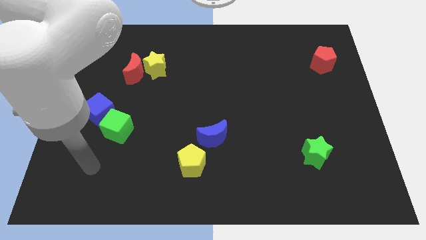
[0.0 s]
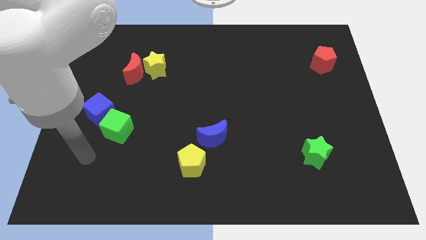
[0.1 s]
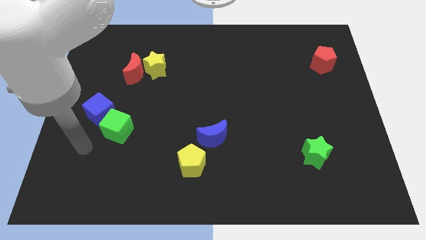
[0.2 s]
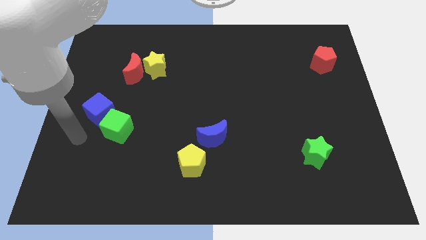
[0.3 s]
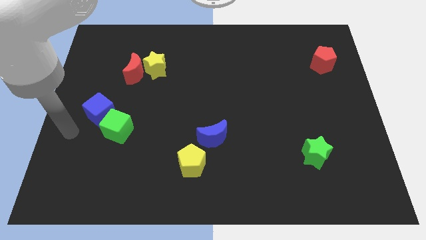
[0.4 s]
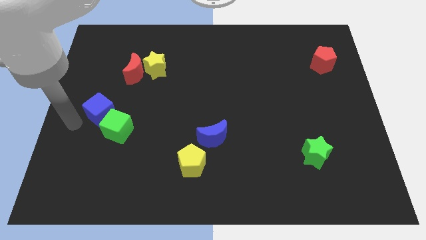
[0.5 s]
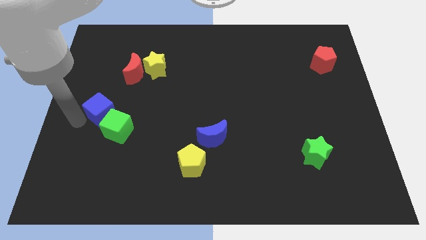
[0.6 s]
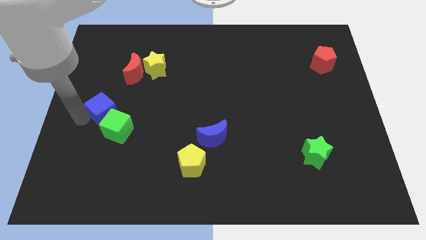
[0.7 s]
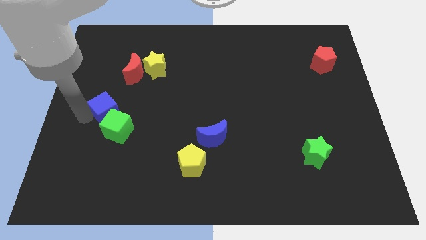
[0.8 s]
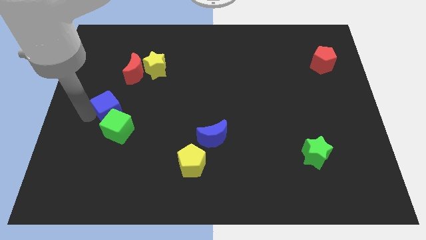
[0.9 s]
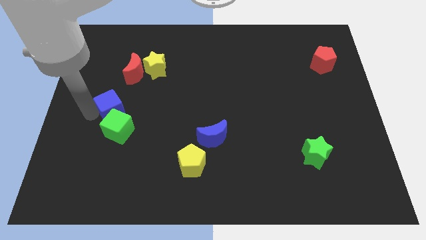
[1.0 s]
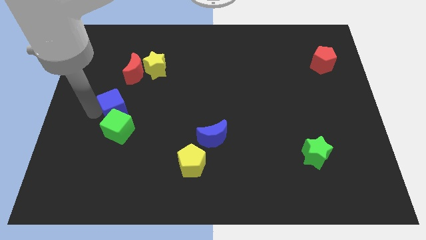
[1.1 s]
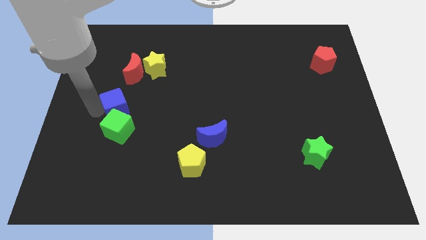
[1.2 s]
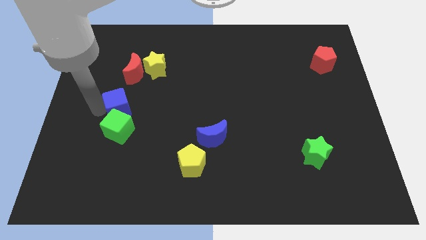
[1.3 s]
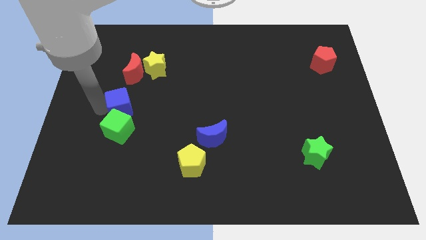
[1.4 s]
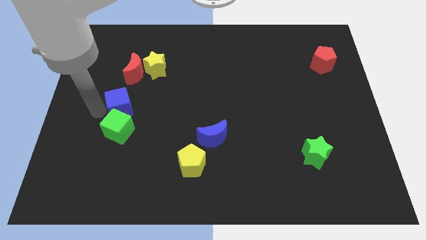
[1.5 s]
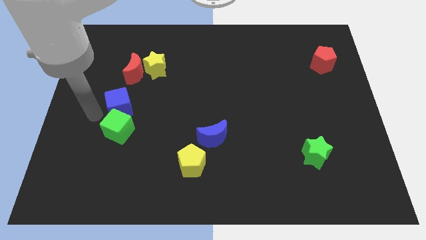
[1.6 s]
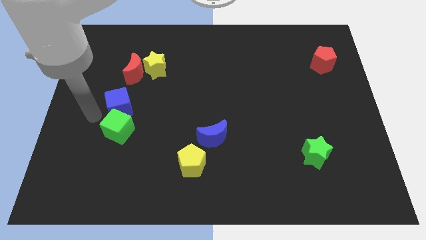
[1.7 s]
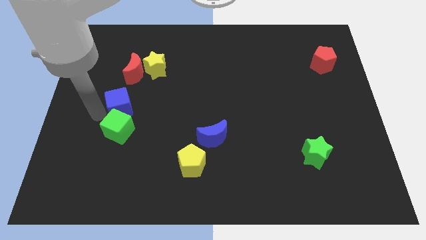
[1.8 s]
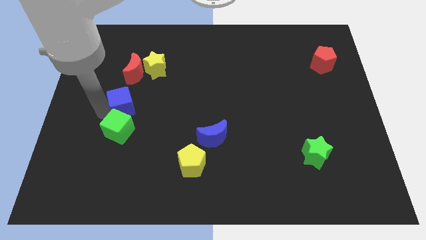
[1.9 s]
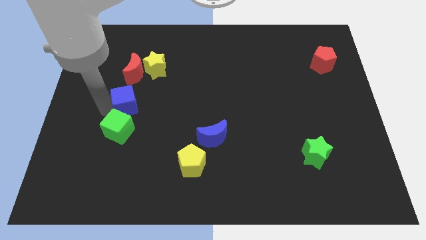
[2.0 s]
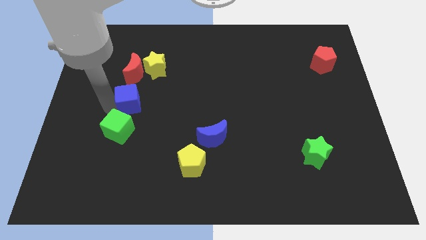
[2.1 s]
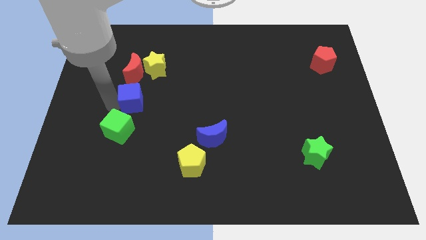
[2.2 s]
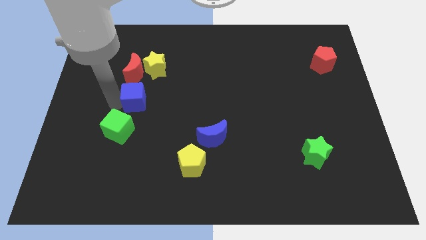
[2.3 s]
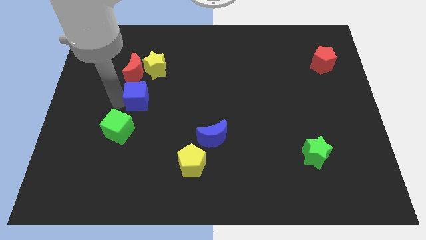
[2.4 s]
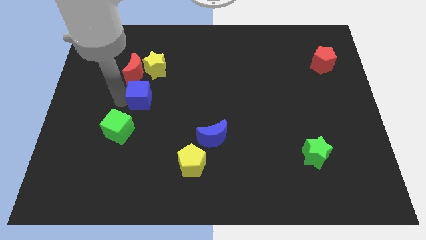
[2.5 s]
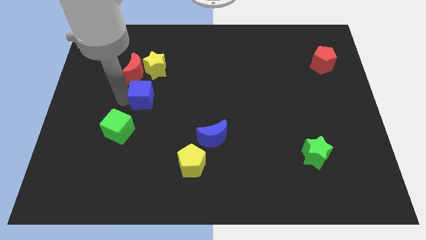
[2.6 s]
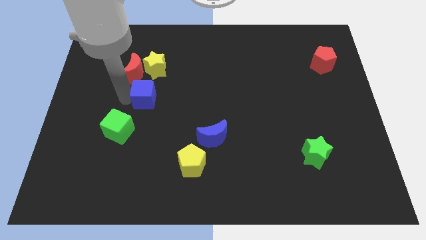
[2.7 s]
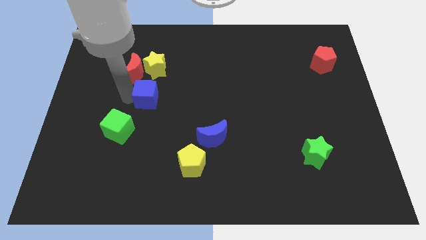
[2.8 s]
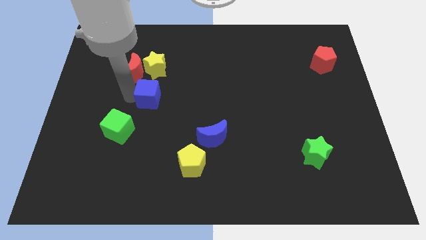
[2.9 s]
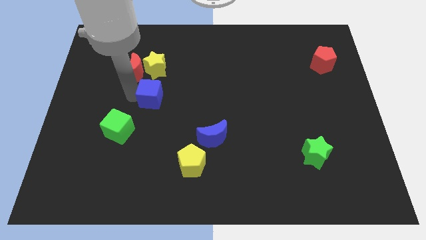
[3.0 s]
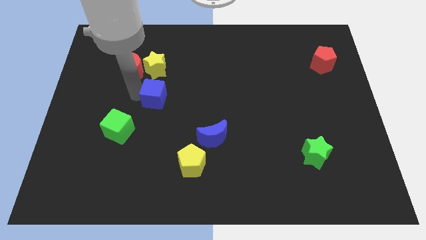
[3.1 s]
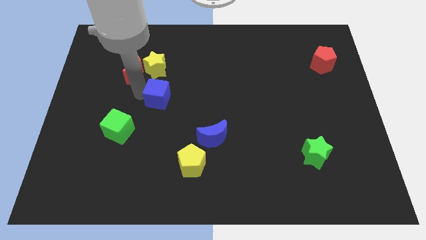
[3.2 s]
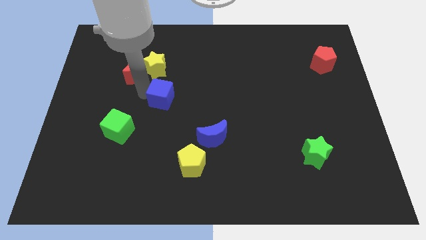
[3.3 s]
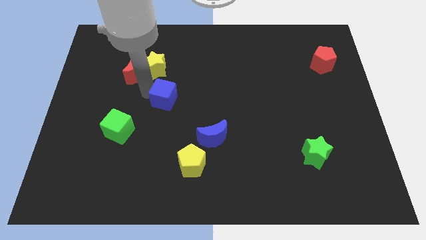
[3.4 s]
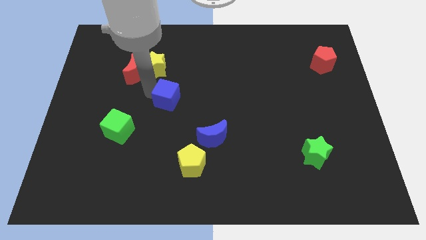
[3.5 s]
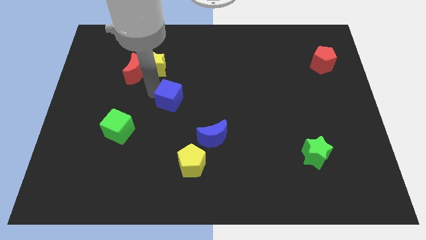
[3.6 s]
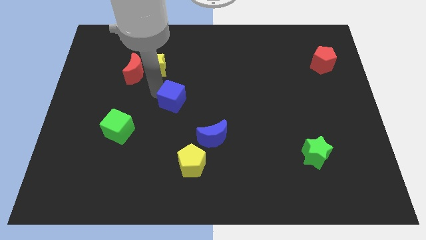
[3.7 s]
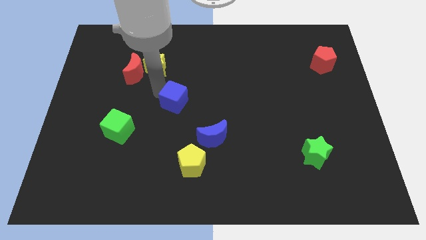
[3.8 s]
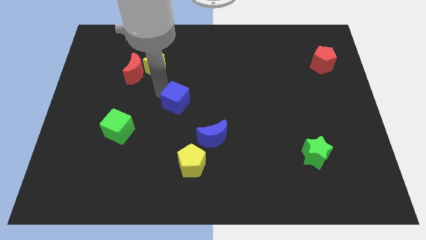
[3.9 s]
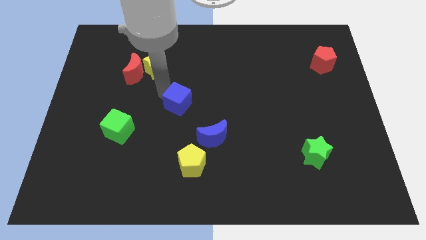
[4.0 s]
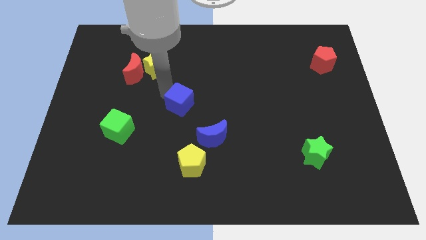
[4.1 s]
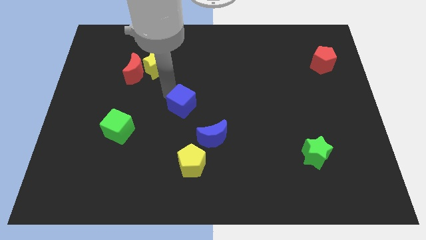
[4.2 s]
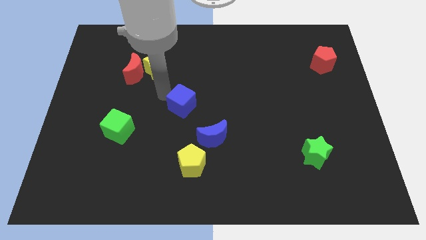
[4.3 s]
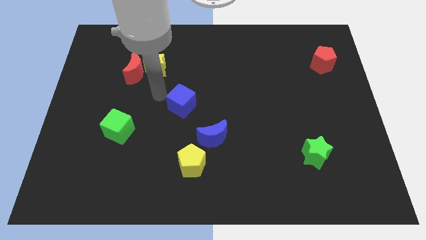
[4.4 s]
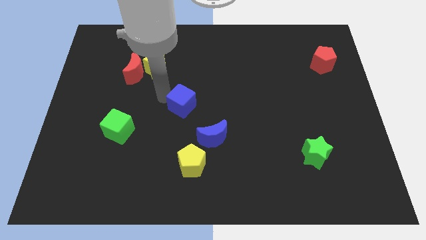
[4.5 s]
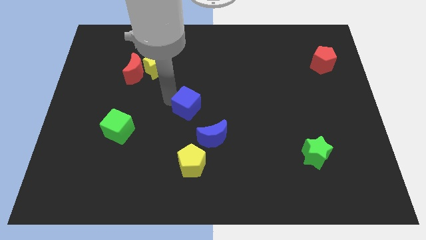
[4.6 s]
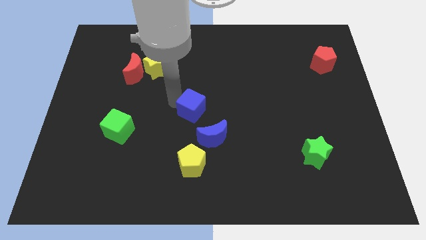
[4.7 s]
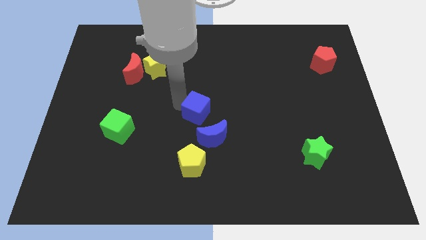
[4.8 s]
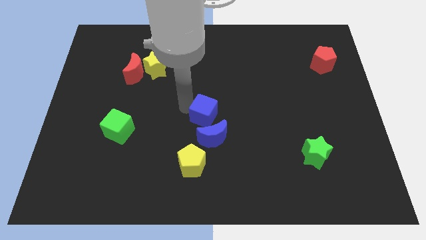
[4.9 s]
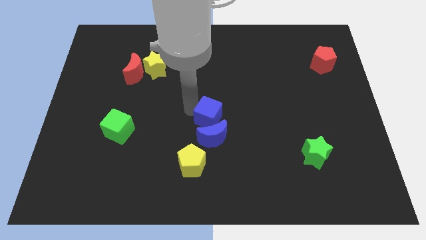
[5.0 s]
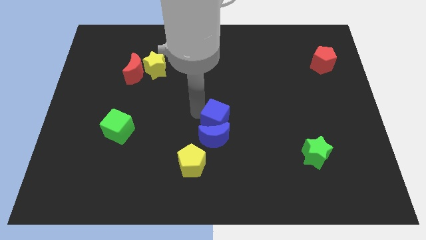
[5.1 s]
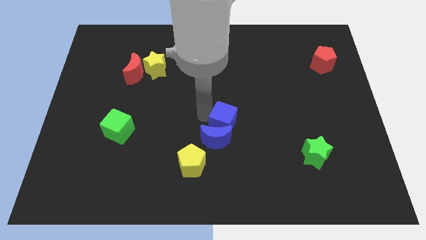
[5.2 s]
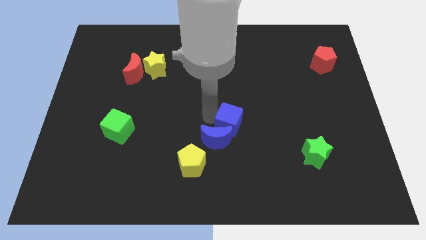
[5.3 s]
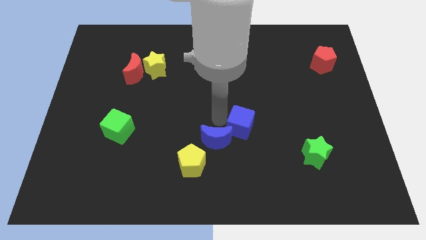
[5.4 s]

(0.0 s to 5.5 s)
slide the blue cube just right of the blue moon

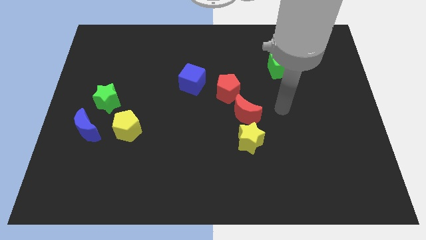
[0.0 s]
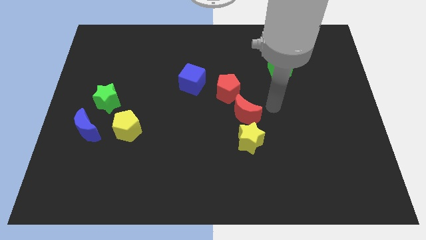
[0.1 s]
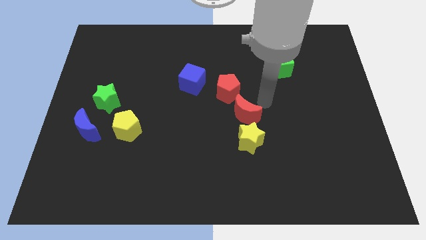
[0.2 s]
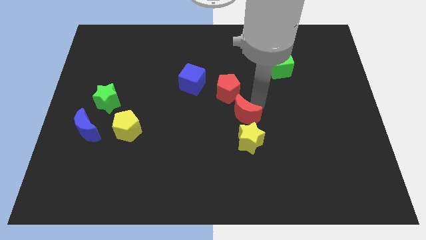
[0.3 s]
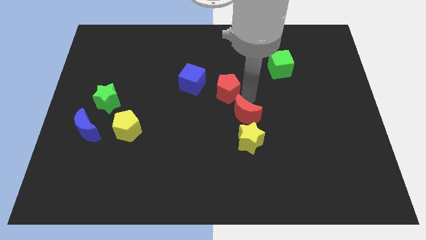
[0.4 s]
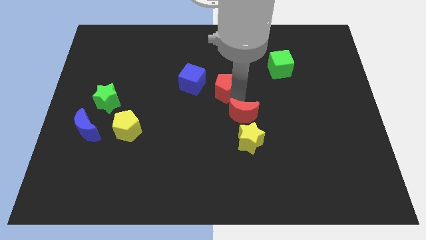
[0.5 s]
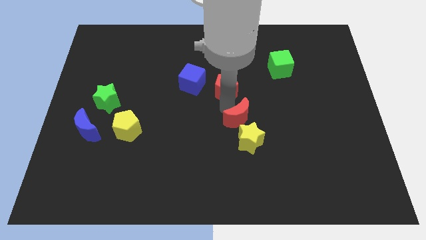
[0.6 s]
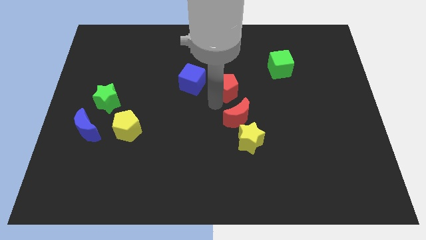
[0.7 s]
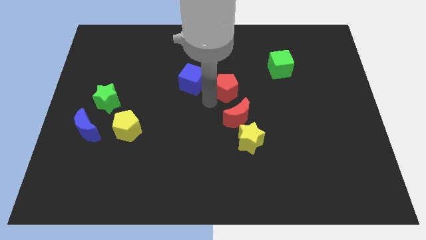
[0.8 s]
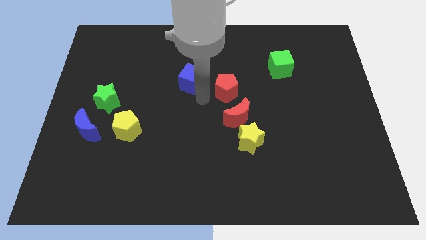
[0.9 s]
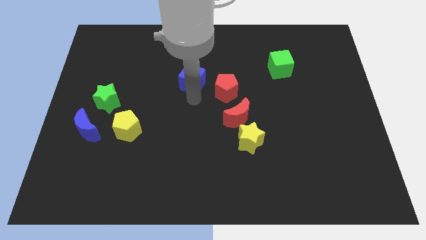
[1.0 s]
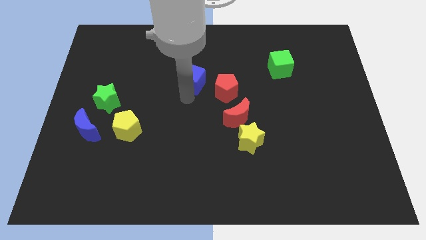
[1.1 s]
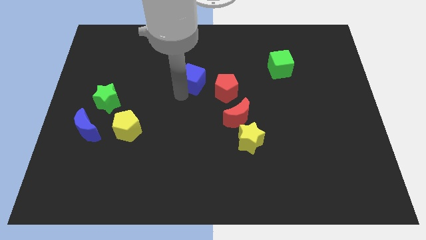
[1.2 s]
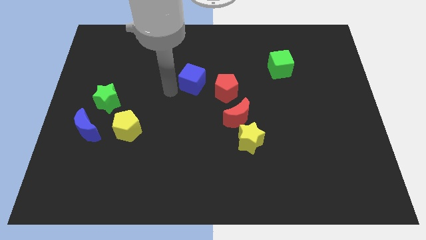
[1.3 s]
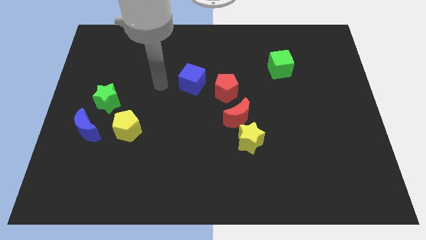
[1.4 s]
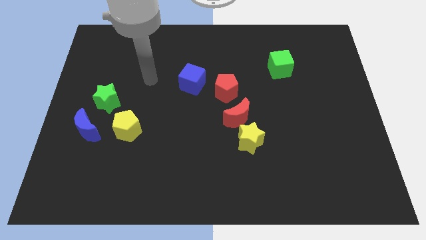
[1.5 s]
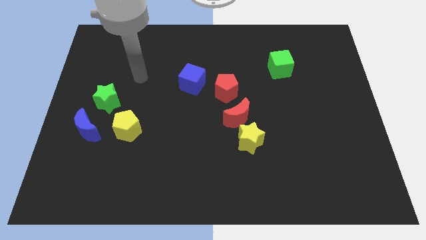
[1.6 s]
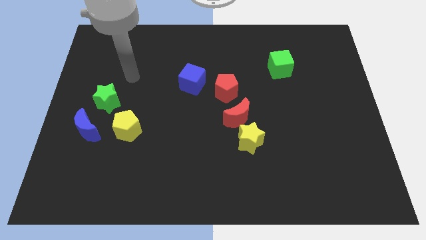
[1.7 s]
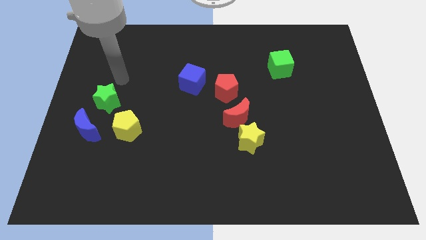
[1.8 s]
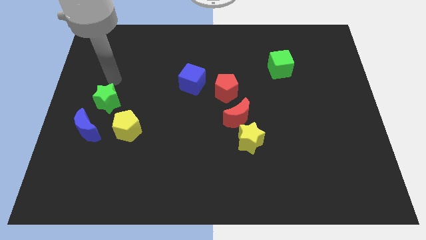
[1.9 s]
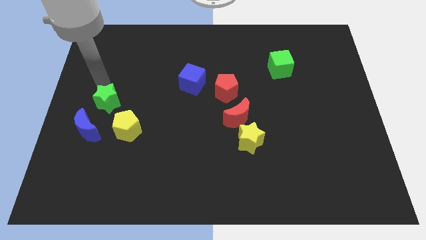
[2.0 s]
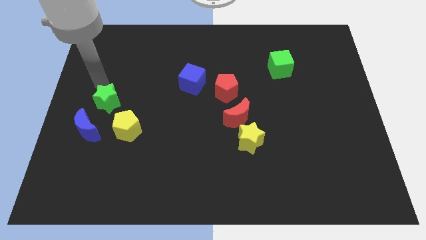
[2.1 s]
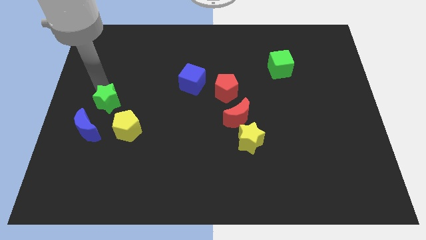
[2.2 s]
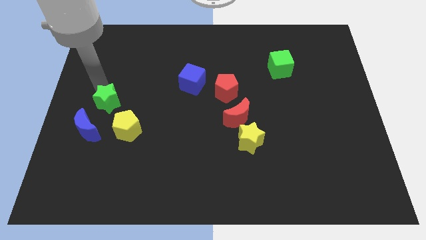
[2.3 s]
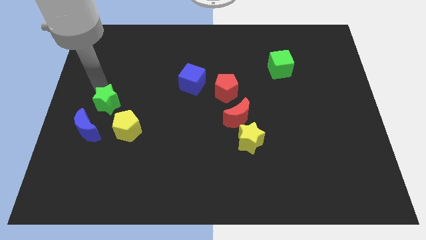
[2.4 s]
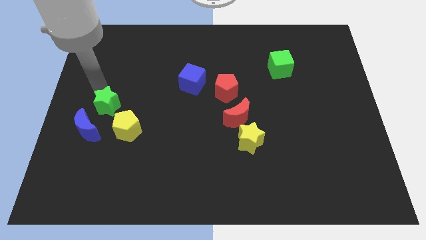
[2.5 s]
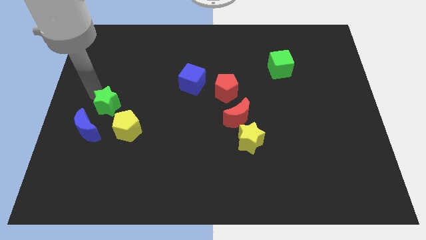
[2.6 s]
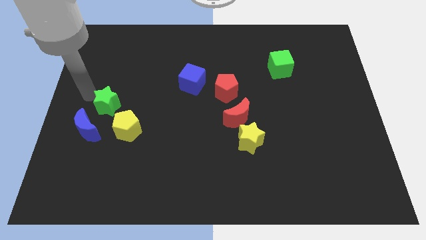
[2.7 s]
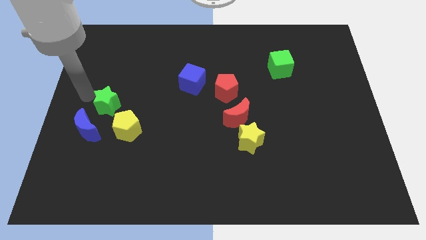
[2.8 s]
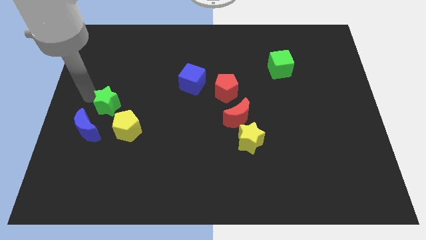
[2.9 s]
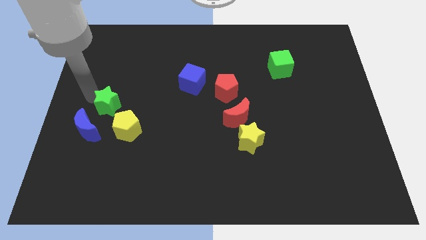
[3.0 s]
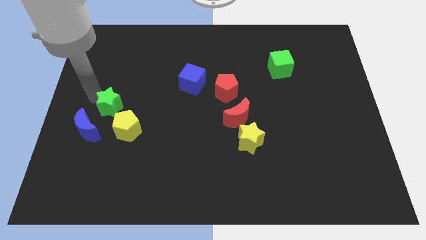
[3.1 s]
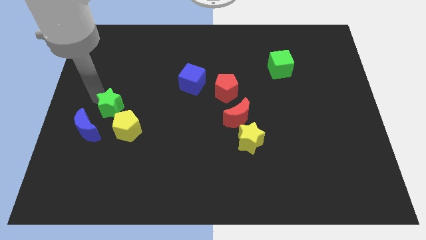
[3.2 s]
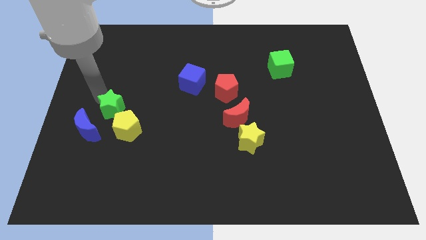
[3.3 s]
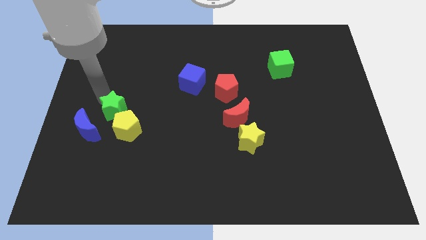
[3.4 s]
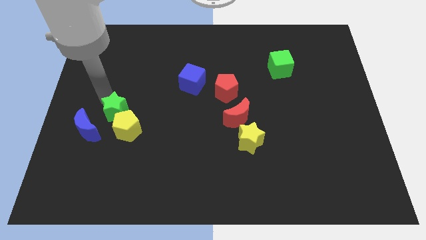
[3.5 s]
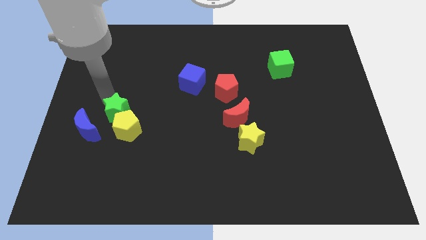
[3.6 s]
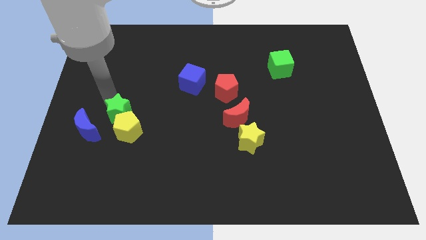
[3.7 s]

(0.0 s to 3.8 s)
move the green star just right of the blue moon
